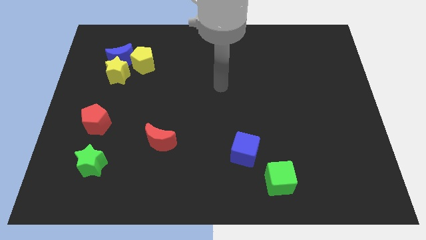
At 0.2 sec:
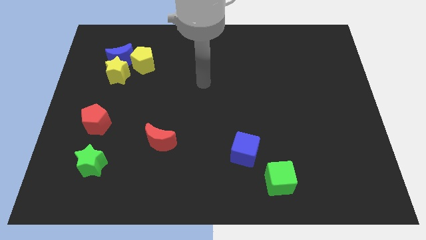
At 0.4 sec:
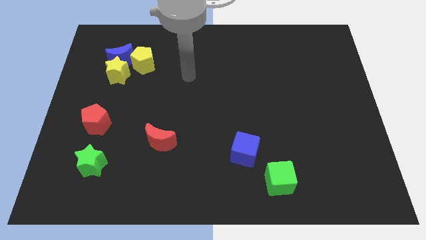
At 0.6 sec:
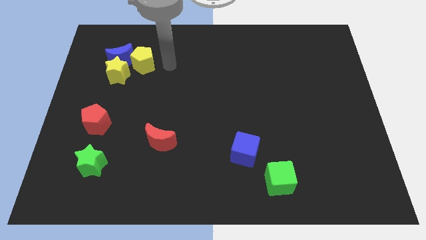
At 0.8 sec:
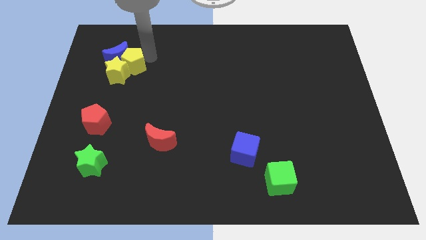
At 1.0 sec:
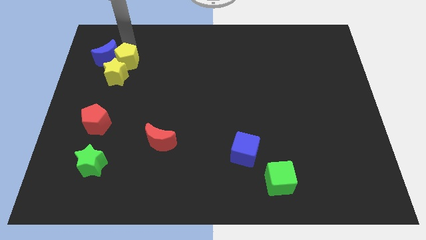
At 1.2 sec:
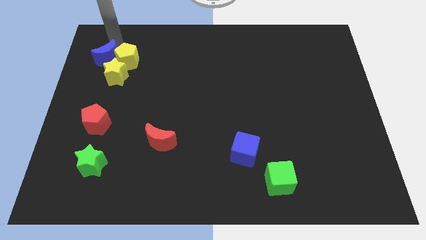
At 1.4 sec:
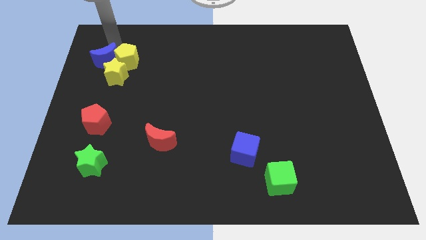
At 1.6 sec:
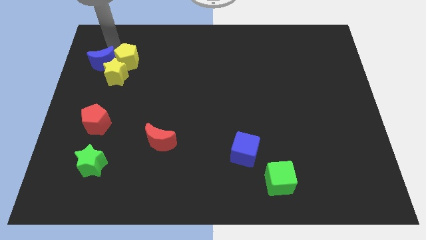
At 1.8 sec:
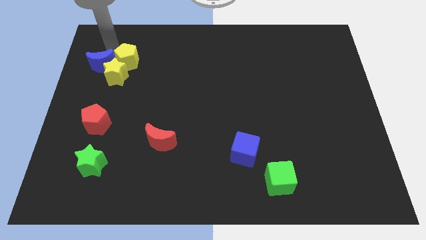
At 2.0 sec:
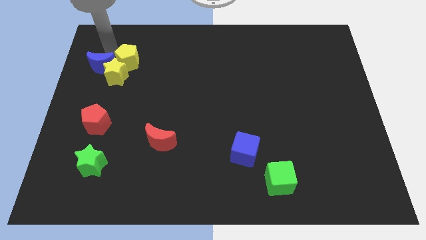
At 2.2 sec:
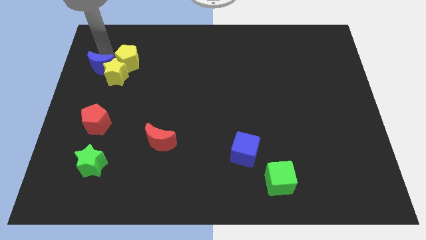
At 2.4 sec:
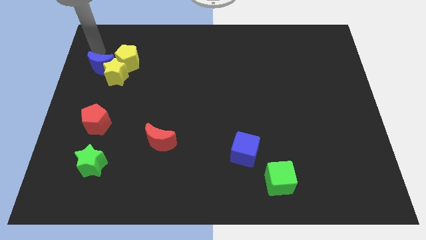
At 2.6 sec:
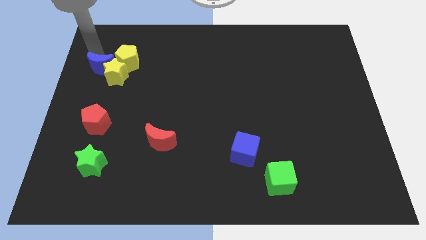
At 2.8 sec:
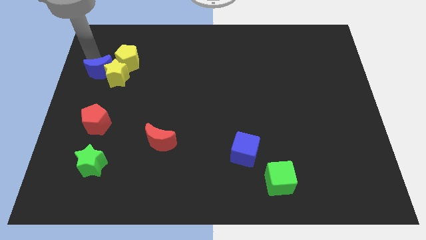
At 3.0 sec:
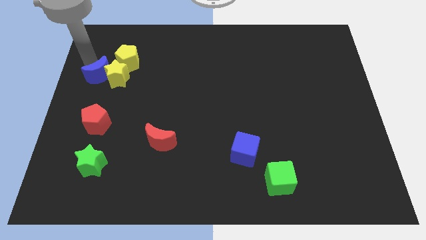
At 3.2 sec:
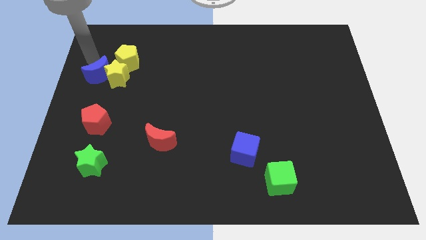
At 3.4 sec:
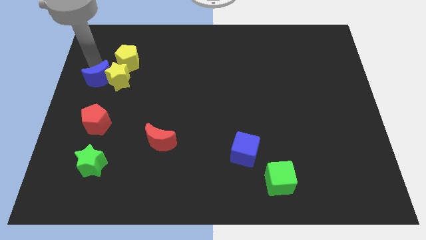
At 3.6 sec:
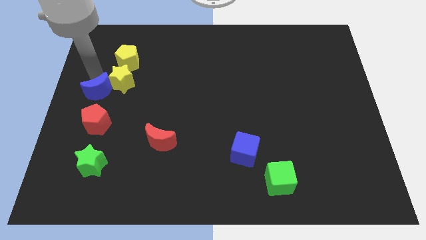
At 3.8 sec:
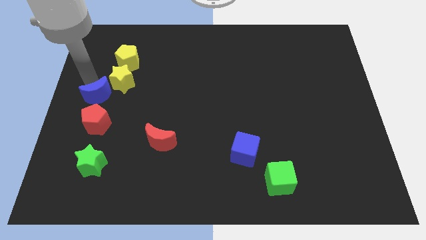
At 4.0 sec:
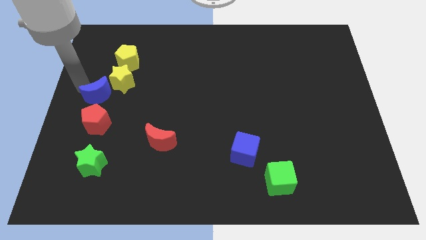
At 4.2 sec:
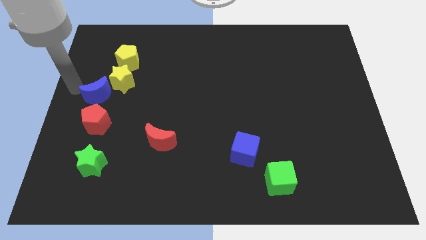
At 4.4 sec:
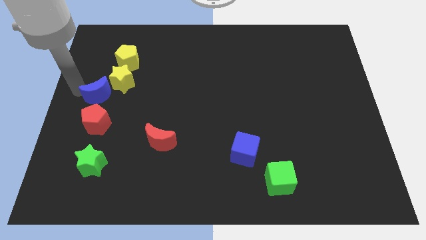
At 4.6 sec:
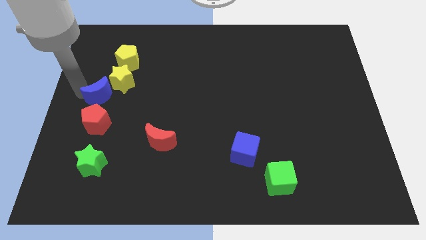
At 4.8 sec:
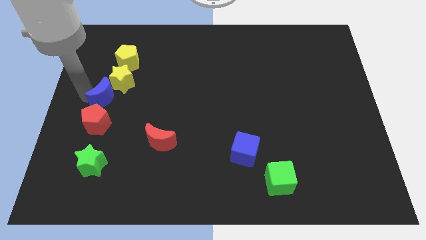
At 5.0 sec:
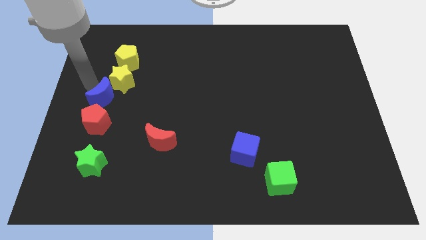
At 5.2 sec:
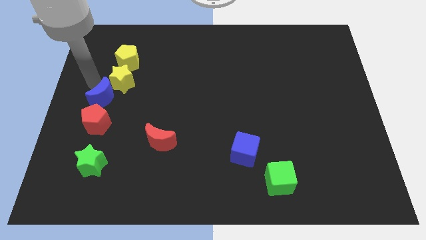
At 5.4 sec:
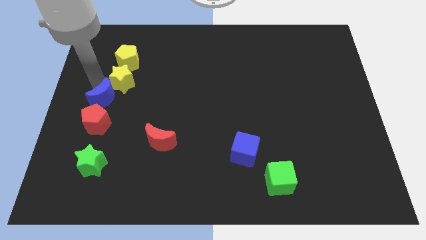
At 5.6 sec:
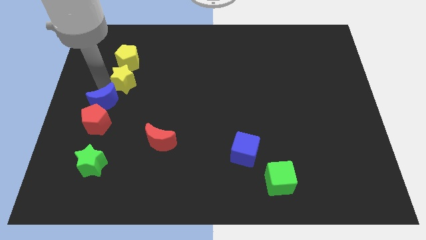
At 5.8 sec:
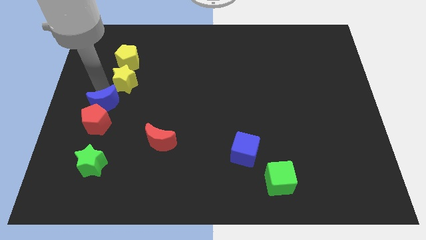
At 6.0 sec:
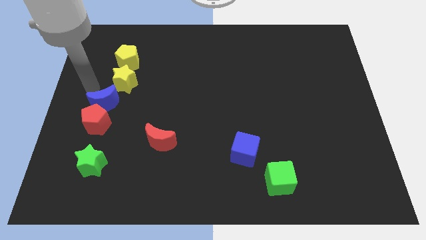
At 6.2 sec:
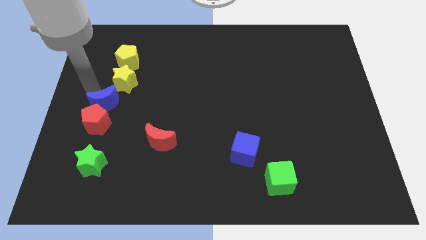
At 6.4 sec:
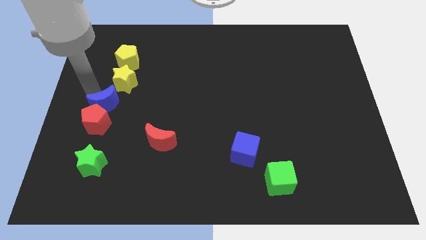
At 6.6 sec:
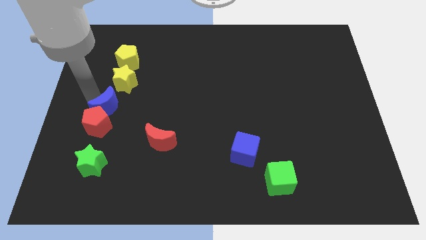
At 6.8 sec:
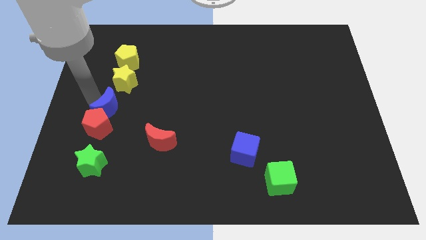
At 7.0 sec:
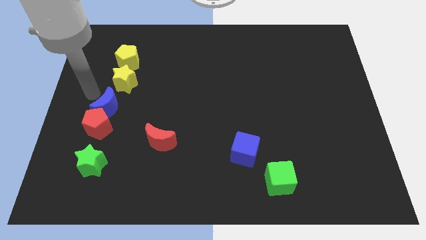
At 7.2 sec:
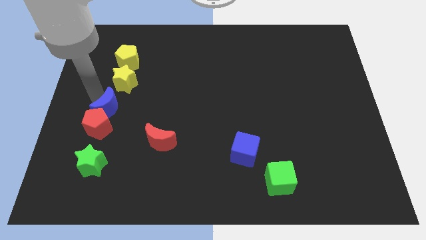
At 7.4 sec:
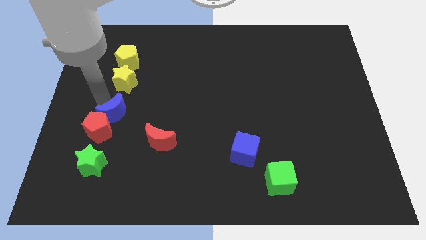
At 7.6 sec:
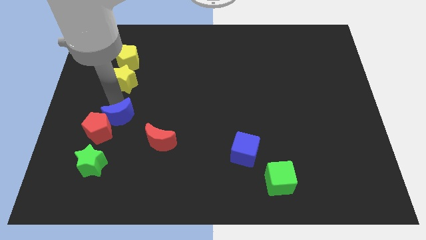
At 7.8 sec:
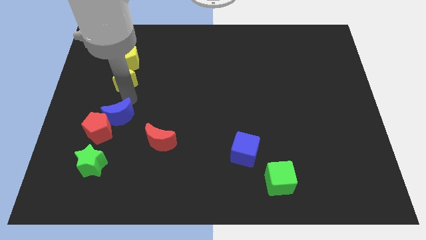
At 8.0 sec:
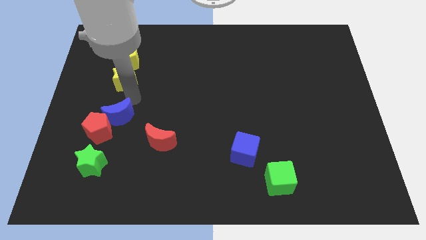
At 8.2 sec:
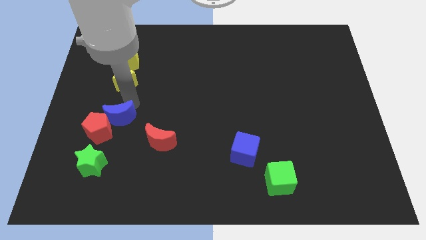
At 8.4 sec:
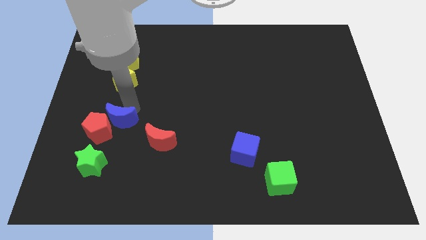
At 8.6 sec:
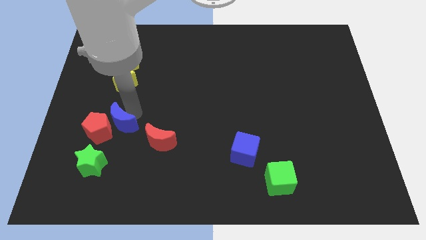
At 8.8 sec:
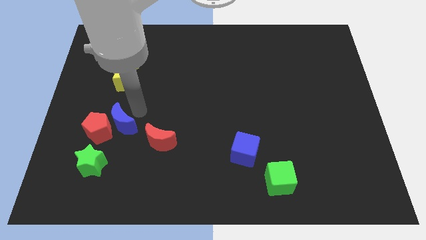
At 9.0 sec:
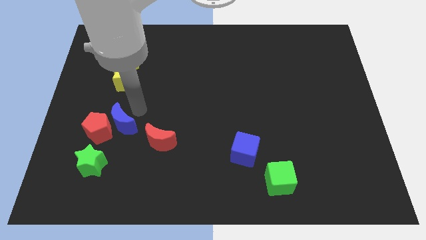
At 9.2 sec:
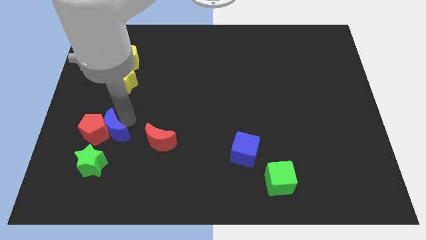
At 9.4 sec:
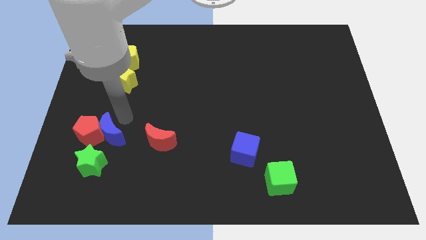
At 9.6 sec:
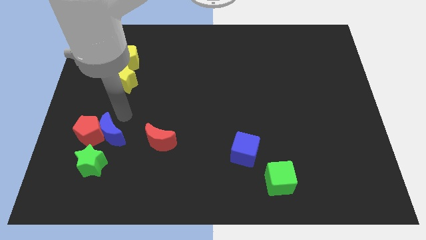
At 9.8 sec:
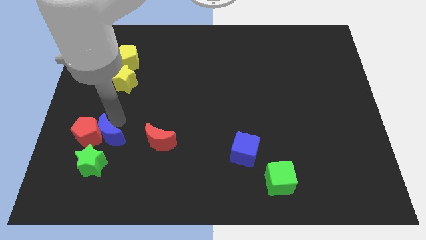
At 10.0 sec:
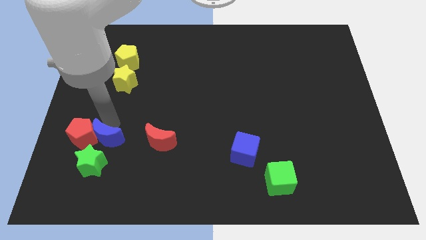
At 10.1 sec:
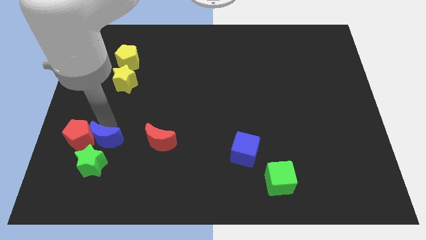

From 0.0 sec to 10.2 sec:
slide the blue moon close to the green star

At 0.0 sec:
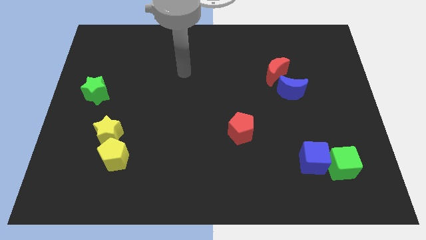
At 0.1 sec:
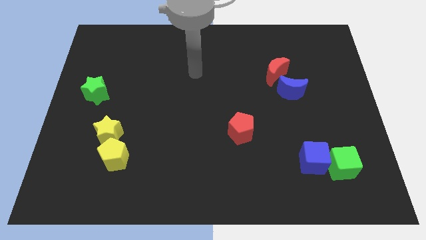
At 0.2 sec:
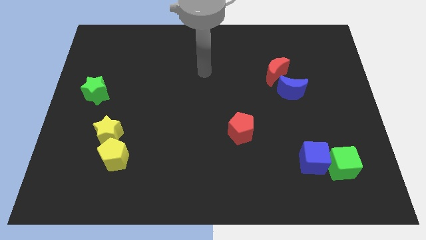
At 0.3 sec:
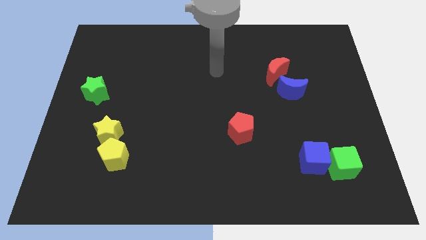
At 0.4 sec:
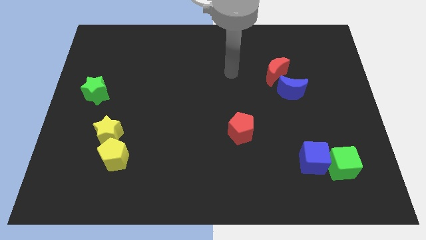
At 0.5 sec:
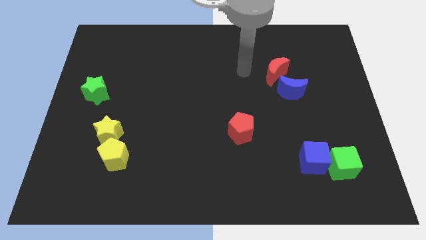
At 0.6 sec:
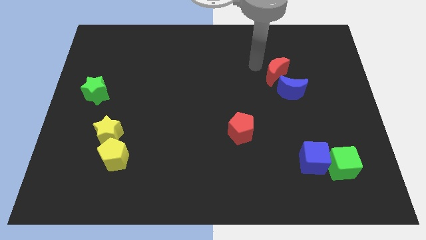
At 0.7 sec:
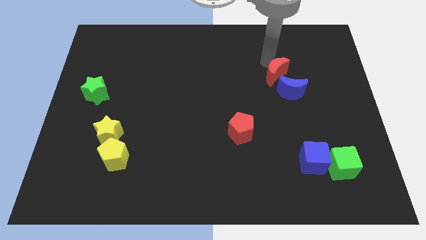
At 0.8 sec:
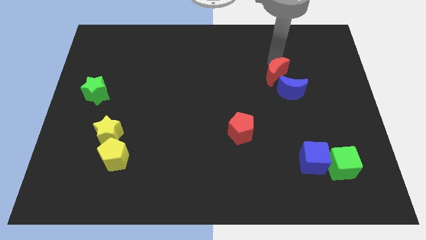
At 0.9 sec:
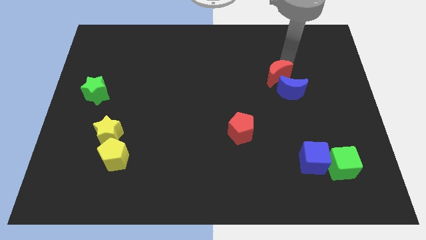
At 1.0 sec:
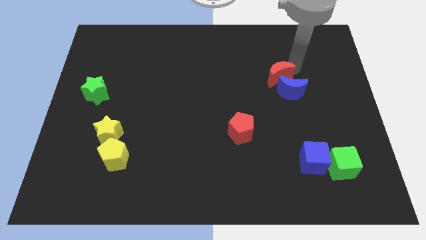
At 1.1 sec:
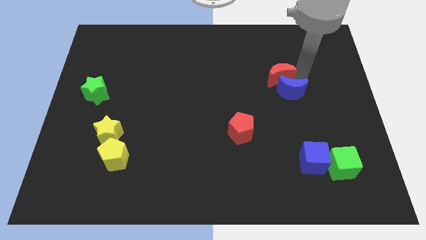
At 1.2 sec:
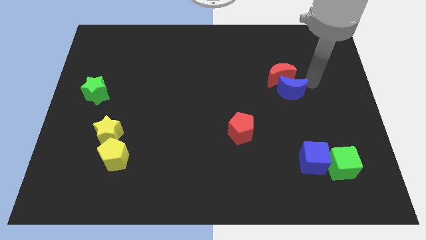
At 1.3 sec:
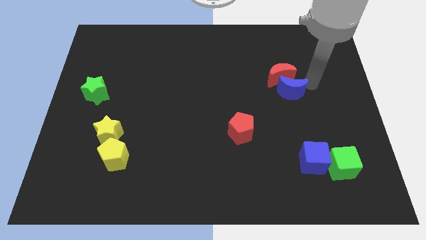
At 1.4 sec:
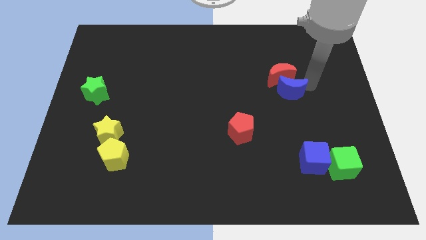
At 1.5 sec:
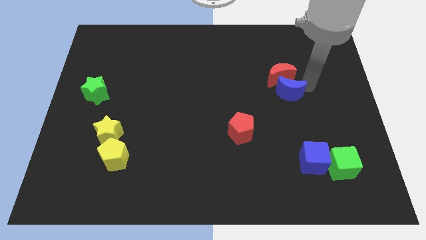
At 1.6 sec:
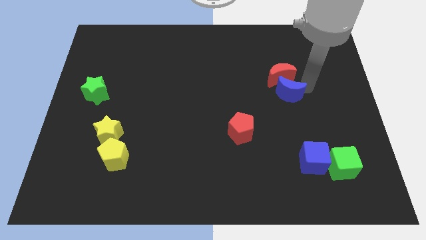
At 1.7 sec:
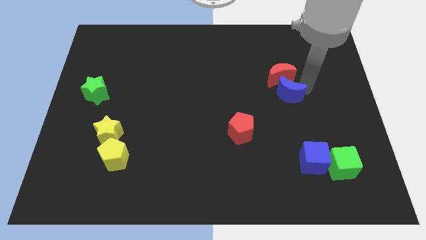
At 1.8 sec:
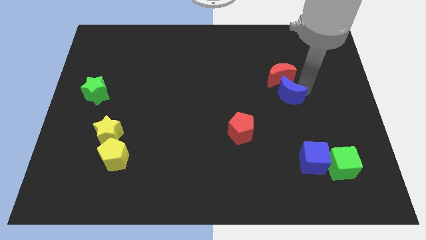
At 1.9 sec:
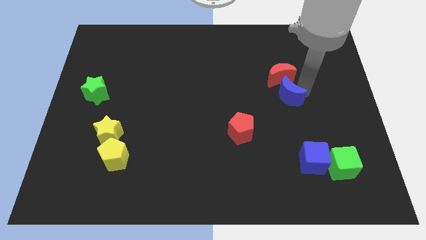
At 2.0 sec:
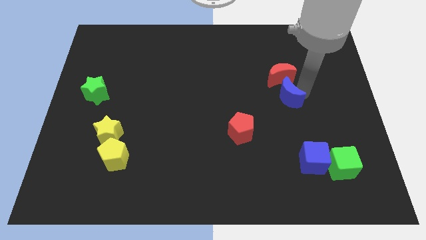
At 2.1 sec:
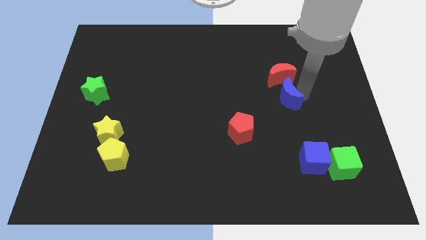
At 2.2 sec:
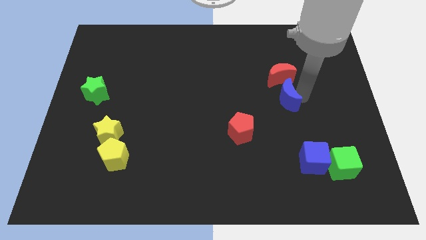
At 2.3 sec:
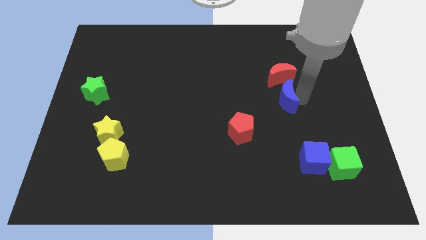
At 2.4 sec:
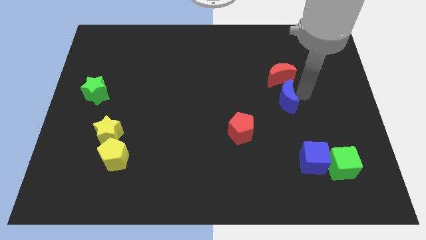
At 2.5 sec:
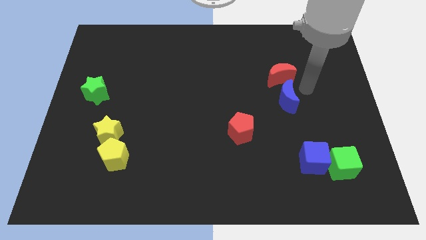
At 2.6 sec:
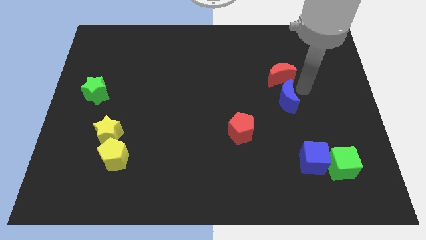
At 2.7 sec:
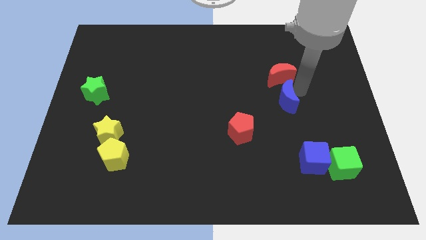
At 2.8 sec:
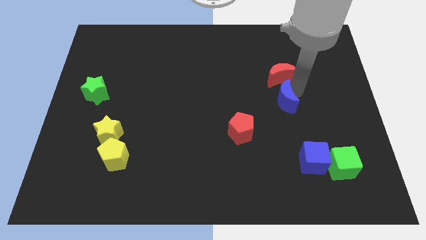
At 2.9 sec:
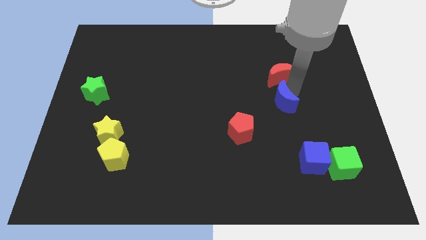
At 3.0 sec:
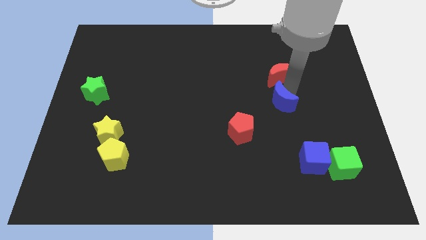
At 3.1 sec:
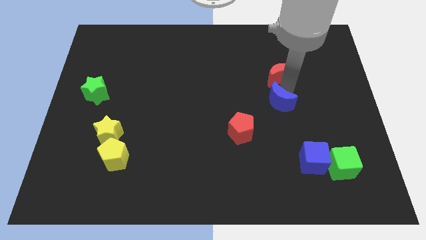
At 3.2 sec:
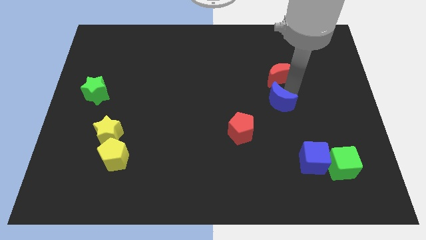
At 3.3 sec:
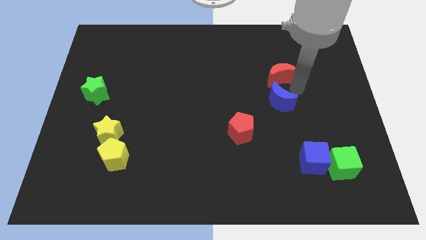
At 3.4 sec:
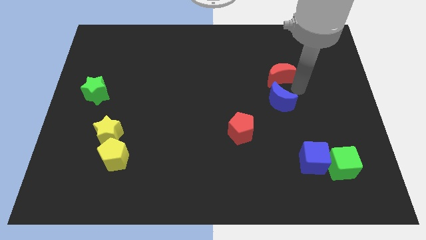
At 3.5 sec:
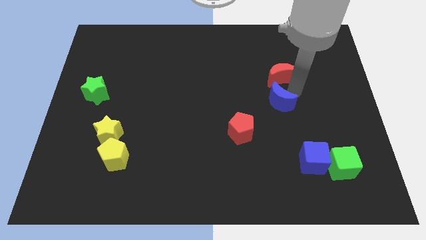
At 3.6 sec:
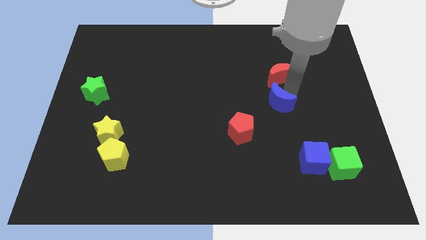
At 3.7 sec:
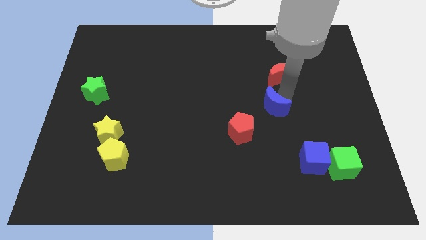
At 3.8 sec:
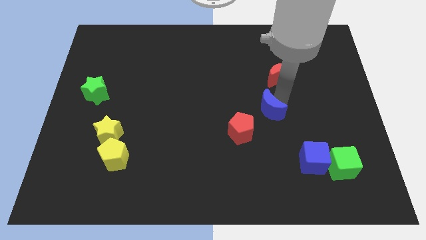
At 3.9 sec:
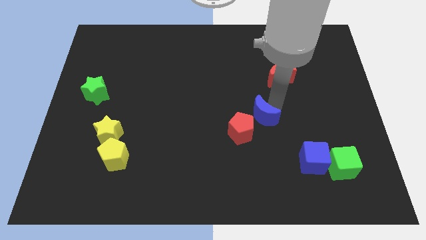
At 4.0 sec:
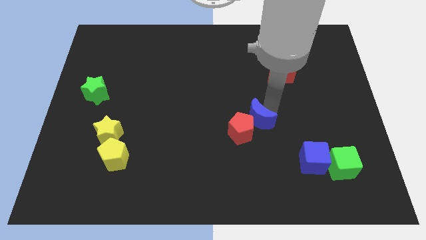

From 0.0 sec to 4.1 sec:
move the blue moon to the red pentagon
